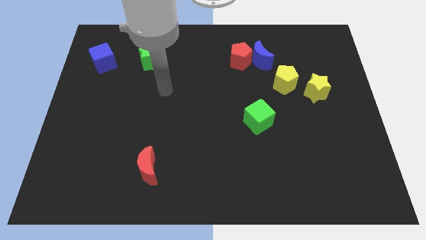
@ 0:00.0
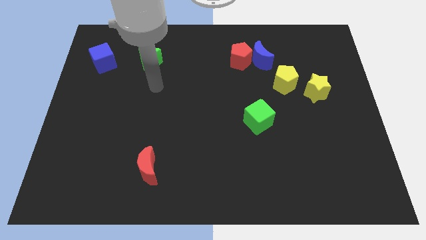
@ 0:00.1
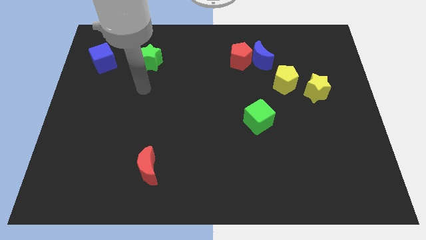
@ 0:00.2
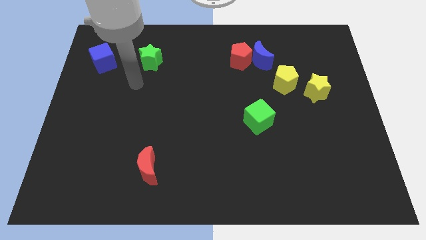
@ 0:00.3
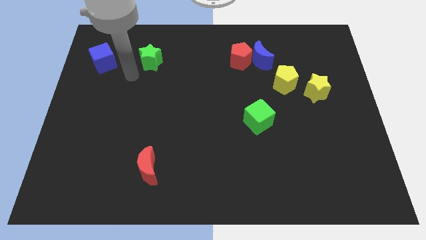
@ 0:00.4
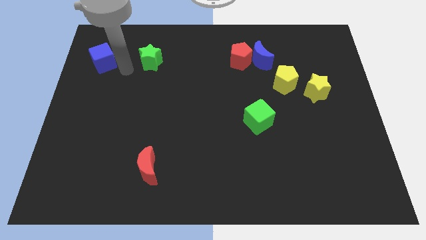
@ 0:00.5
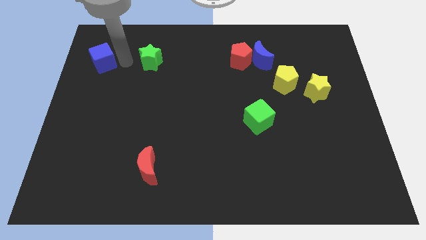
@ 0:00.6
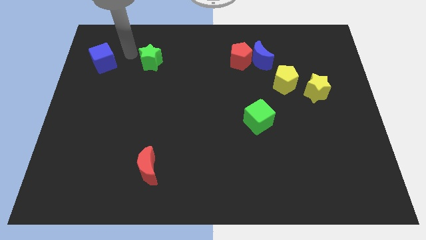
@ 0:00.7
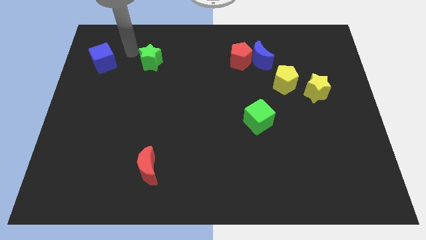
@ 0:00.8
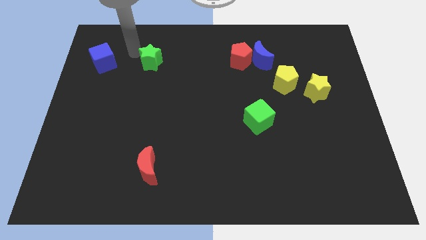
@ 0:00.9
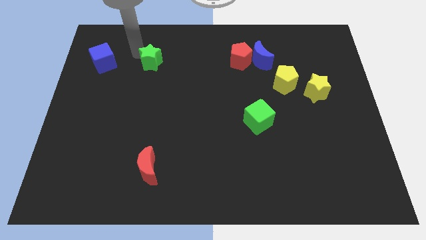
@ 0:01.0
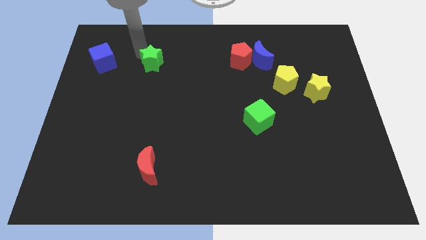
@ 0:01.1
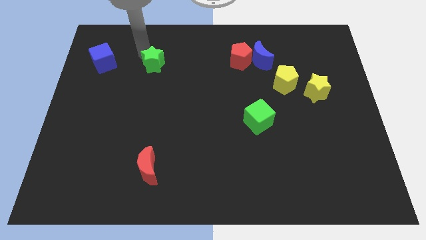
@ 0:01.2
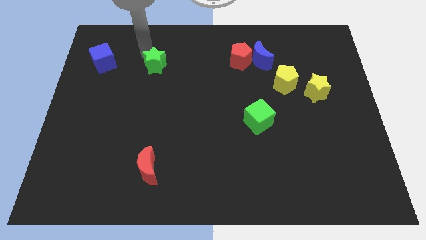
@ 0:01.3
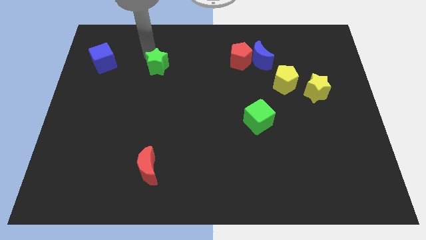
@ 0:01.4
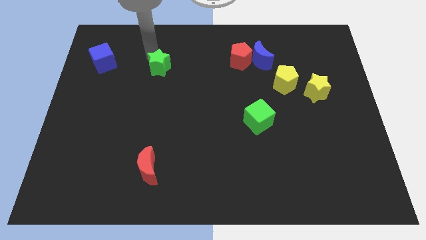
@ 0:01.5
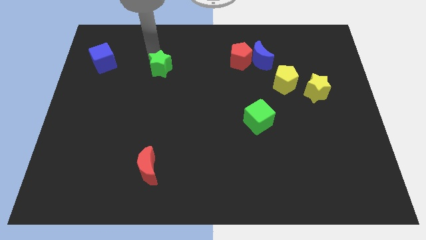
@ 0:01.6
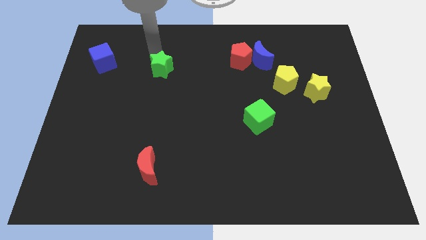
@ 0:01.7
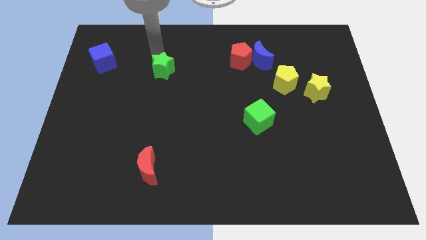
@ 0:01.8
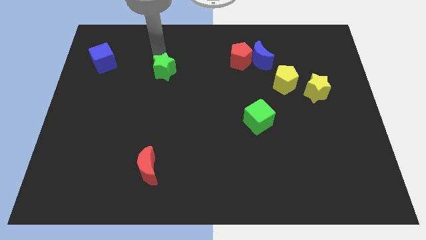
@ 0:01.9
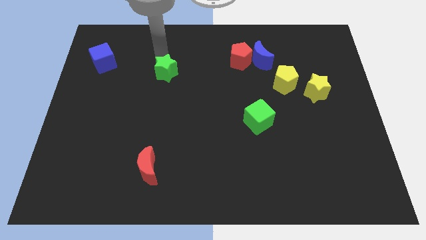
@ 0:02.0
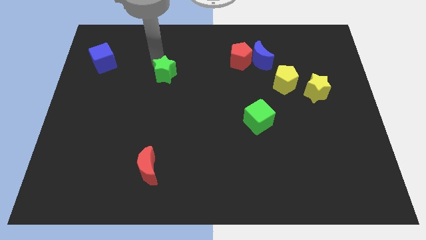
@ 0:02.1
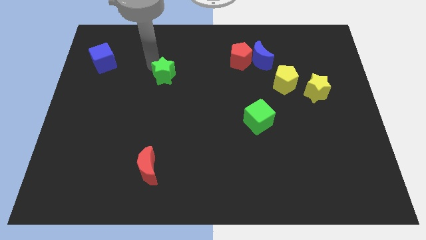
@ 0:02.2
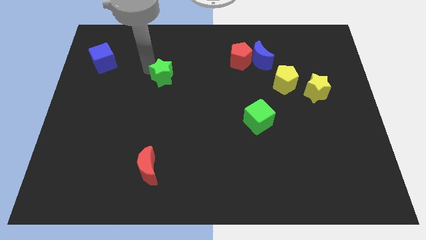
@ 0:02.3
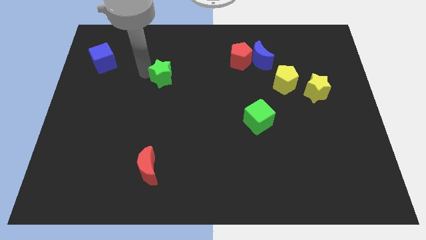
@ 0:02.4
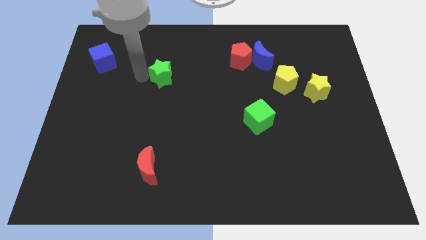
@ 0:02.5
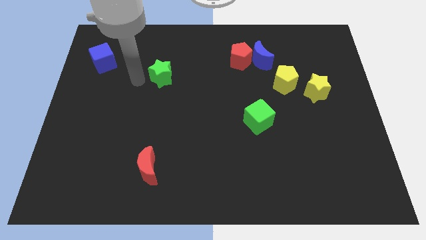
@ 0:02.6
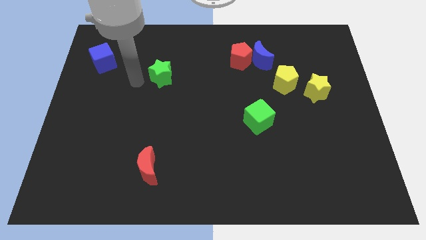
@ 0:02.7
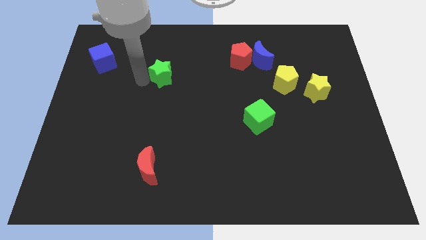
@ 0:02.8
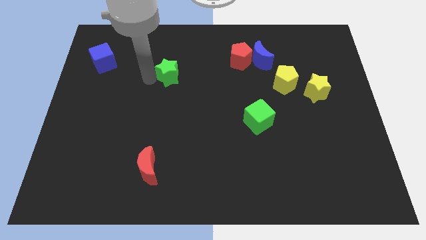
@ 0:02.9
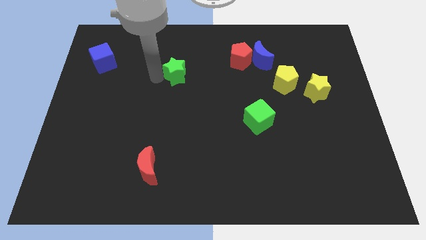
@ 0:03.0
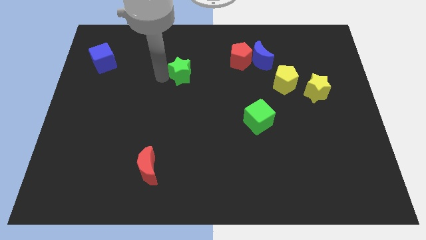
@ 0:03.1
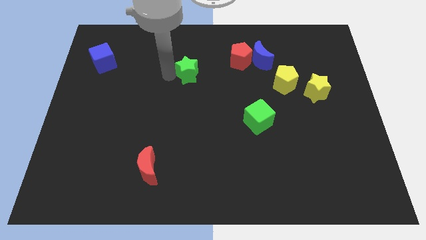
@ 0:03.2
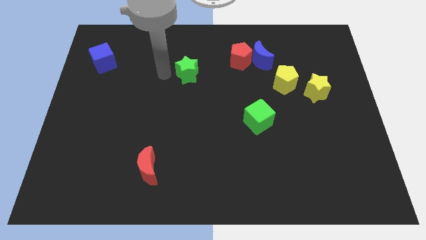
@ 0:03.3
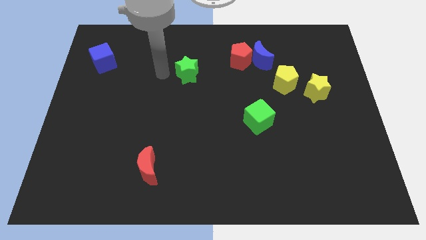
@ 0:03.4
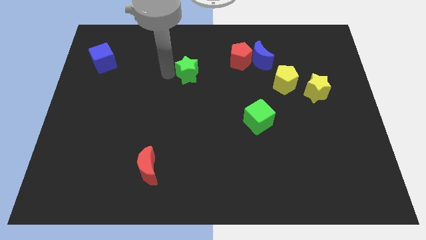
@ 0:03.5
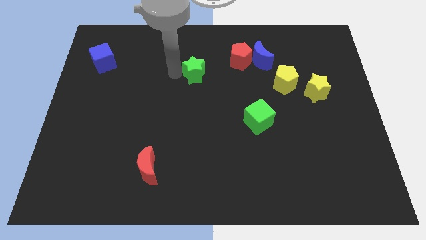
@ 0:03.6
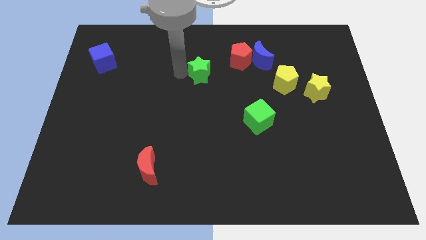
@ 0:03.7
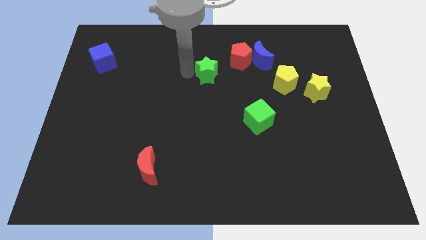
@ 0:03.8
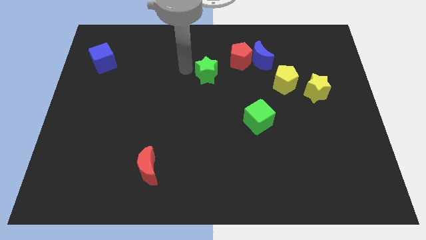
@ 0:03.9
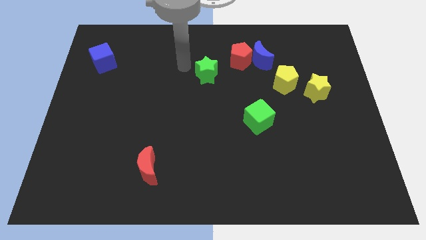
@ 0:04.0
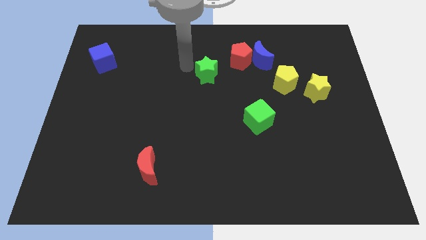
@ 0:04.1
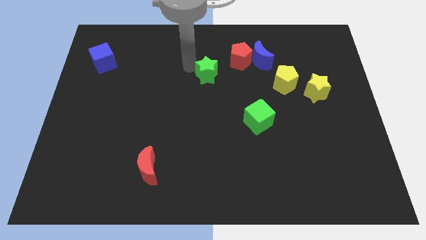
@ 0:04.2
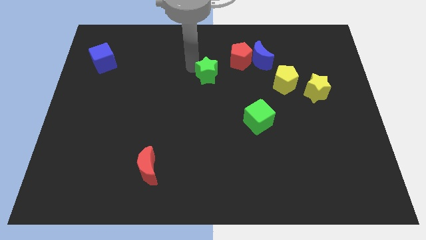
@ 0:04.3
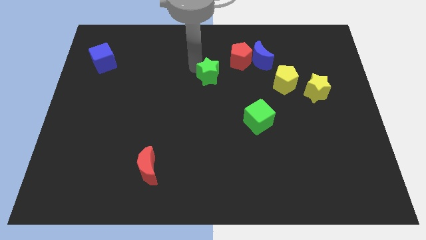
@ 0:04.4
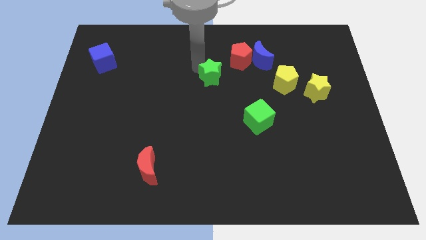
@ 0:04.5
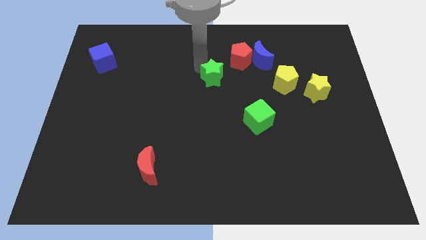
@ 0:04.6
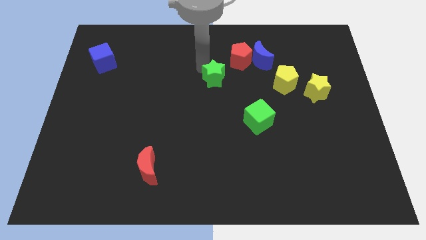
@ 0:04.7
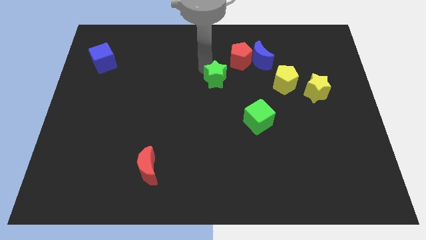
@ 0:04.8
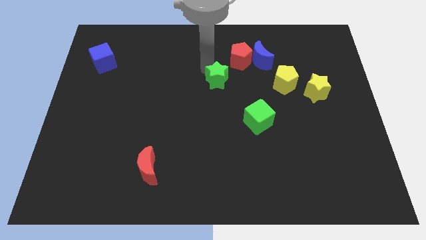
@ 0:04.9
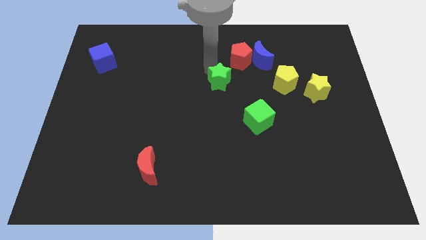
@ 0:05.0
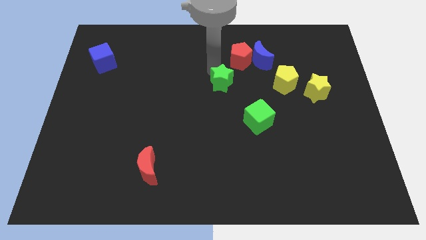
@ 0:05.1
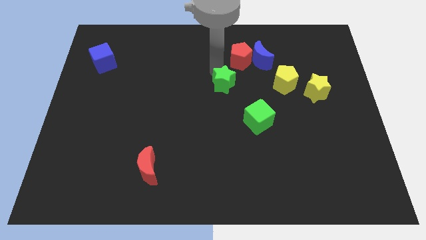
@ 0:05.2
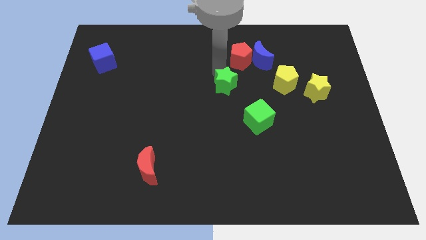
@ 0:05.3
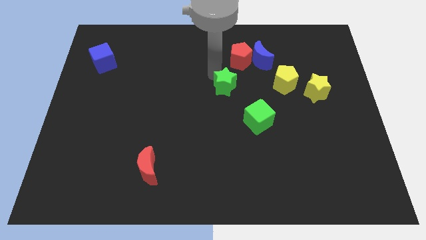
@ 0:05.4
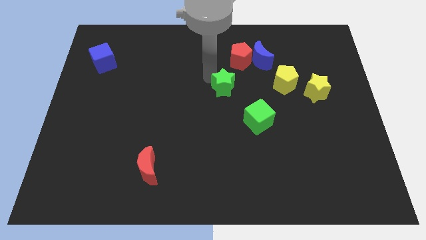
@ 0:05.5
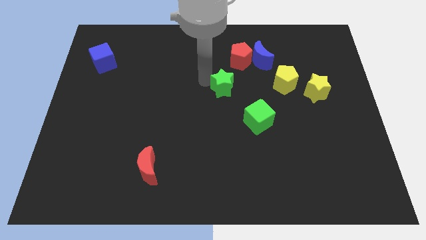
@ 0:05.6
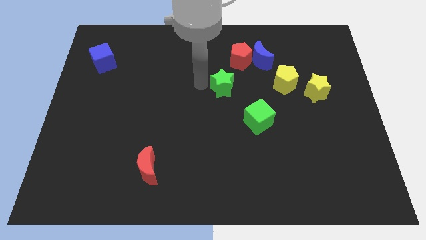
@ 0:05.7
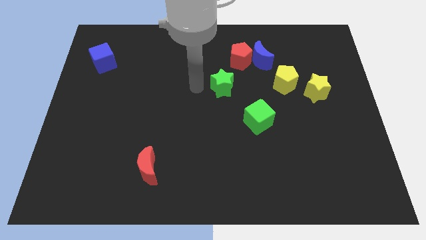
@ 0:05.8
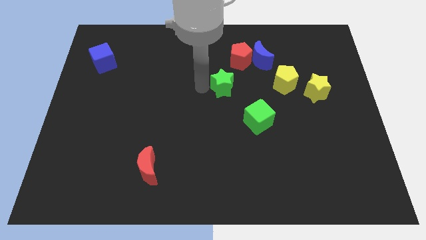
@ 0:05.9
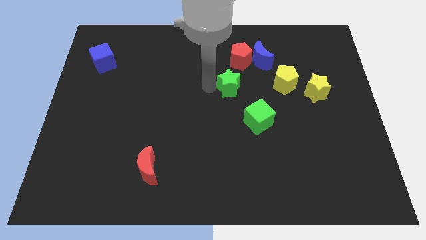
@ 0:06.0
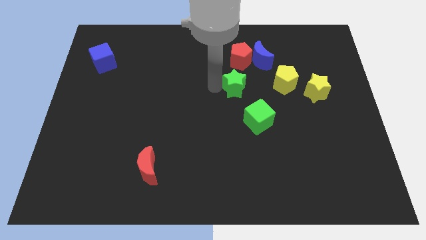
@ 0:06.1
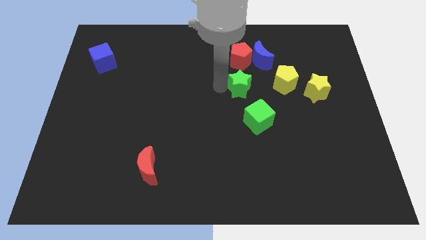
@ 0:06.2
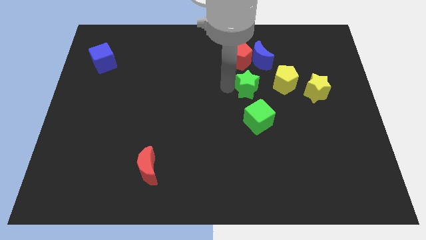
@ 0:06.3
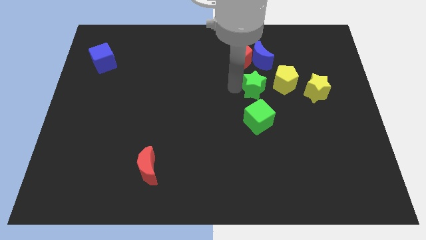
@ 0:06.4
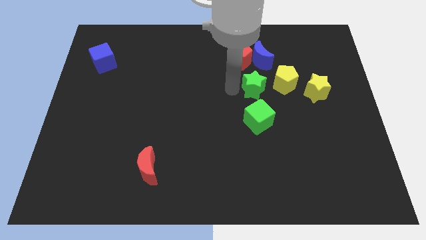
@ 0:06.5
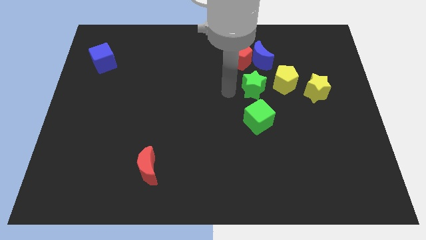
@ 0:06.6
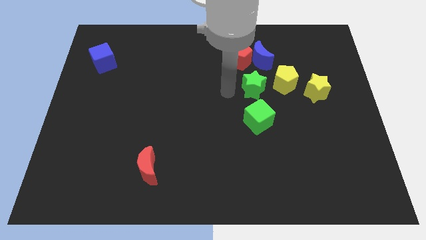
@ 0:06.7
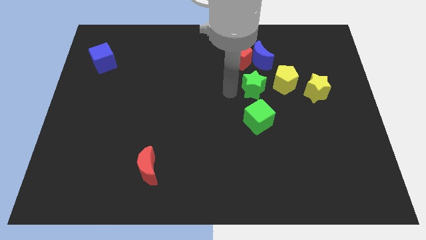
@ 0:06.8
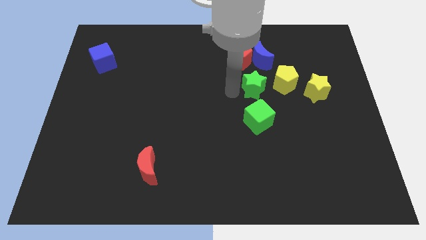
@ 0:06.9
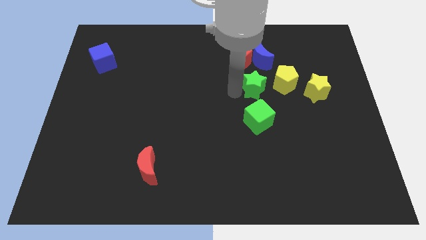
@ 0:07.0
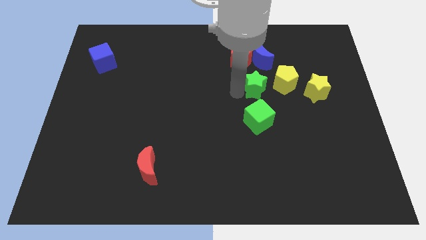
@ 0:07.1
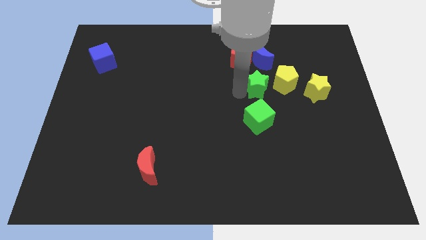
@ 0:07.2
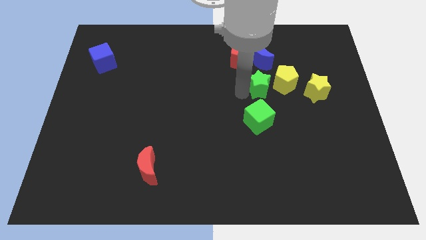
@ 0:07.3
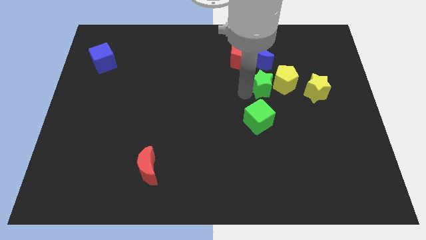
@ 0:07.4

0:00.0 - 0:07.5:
slide the green star towards the yellow pentagon

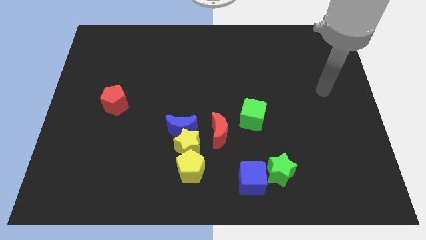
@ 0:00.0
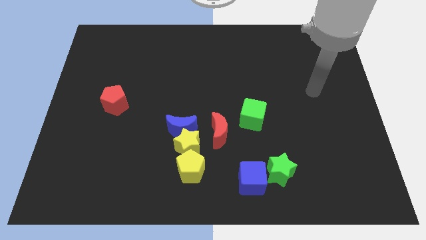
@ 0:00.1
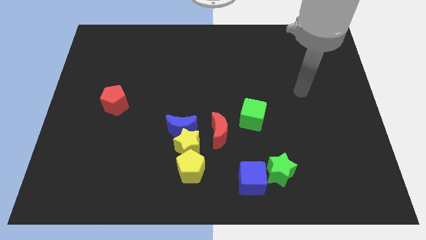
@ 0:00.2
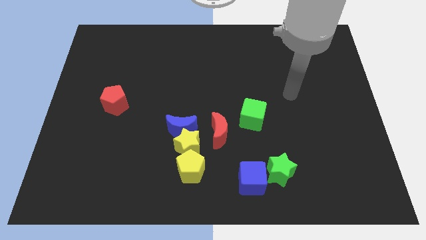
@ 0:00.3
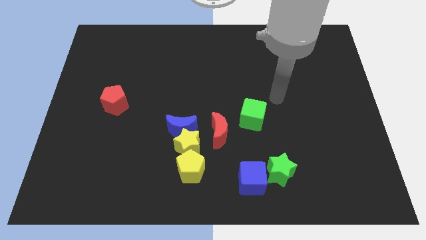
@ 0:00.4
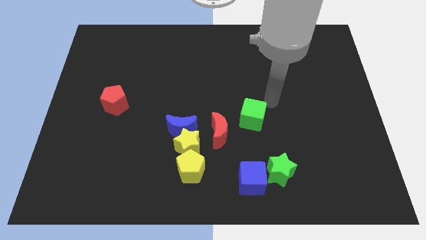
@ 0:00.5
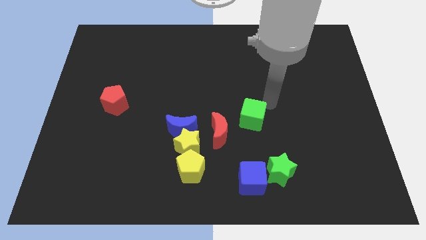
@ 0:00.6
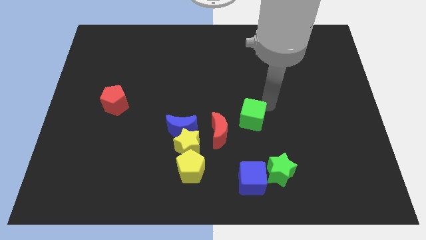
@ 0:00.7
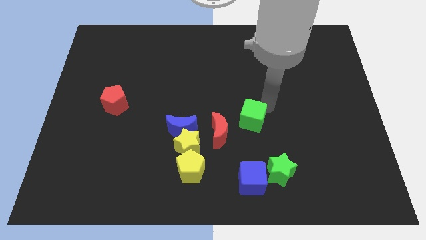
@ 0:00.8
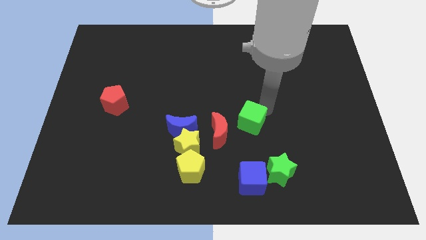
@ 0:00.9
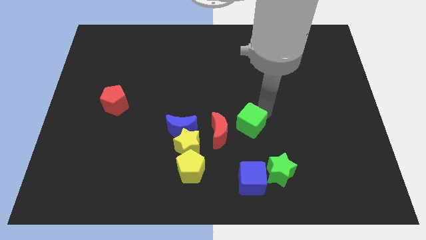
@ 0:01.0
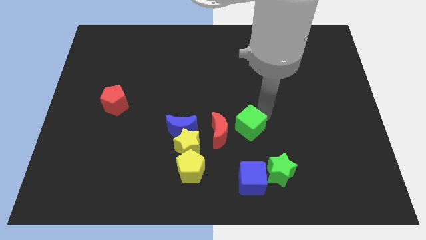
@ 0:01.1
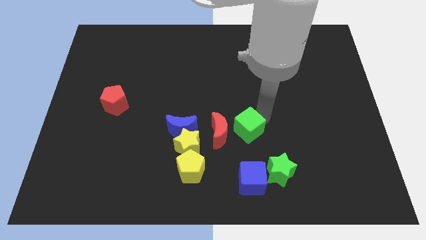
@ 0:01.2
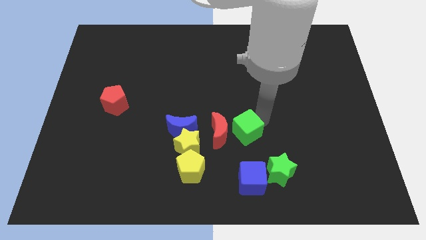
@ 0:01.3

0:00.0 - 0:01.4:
move the green cube to the red moon
